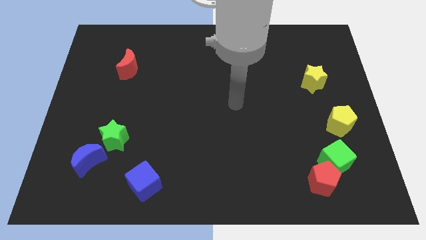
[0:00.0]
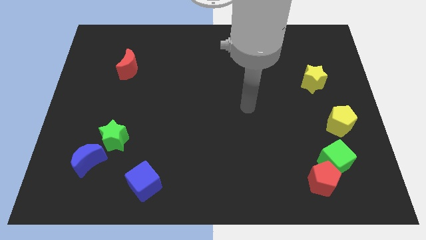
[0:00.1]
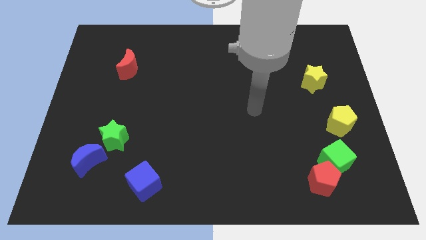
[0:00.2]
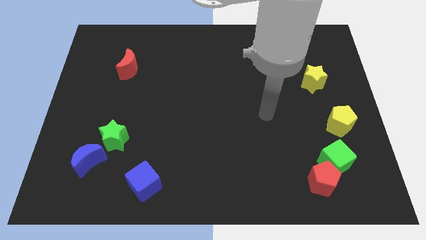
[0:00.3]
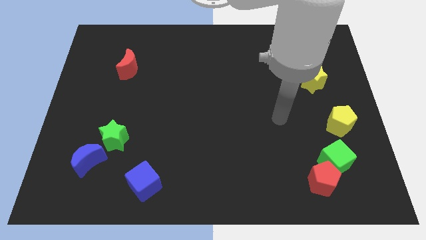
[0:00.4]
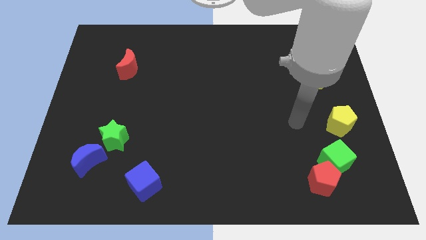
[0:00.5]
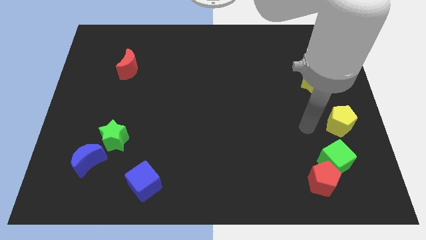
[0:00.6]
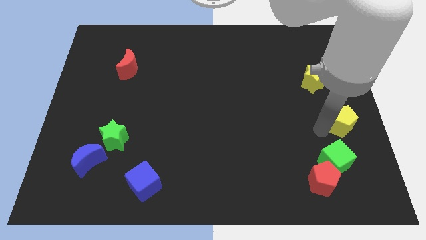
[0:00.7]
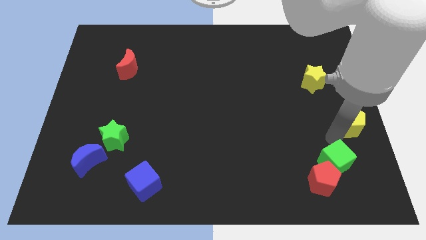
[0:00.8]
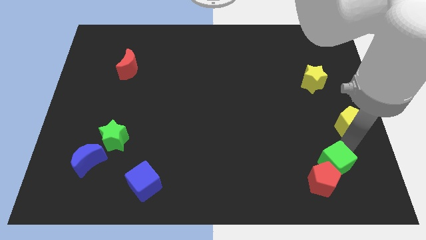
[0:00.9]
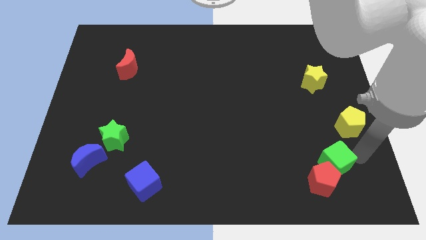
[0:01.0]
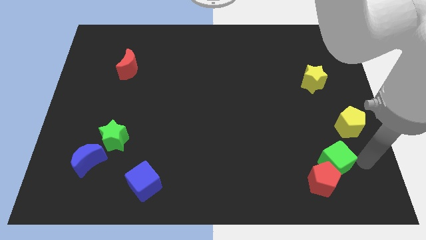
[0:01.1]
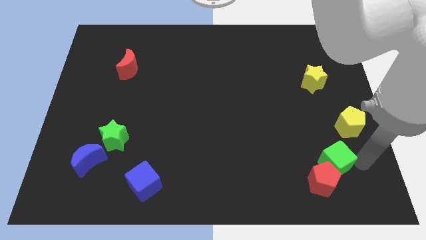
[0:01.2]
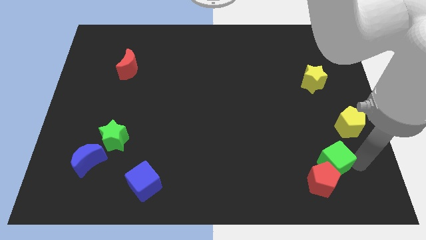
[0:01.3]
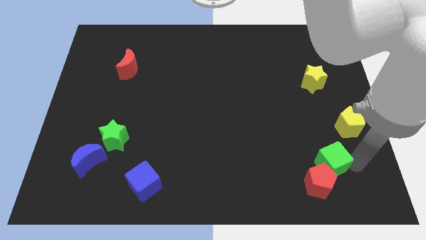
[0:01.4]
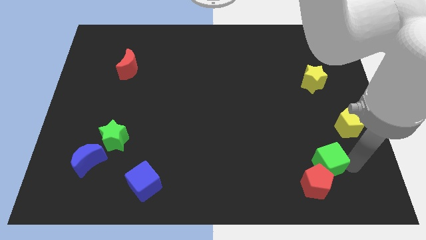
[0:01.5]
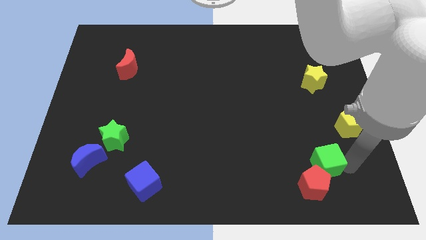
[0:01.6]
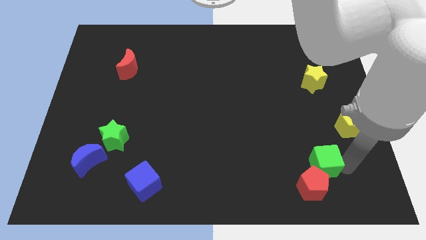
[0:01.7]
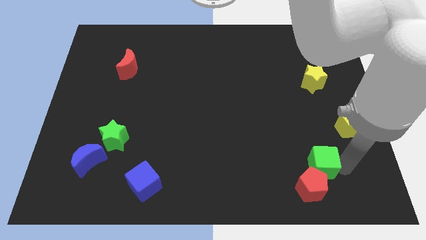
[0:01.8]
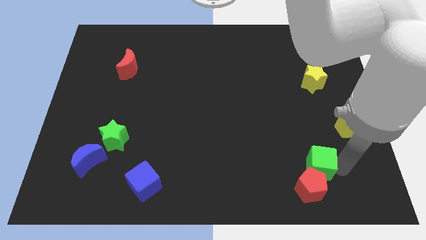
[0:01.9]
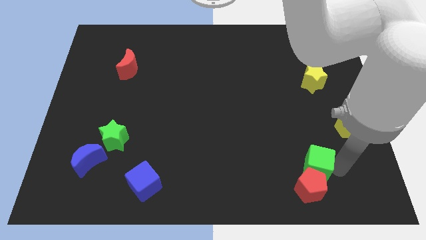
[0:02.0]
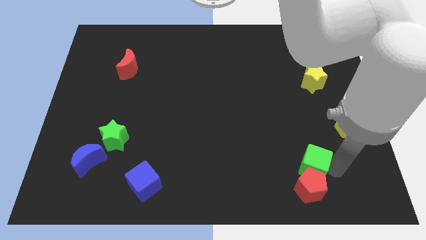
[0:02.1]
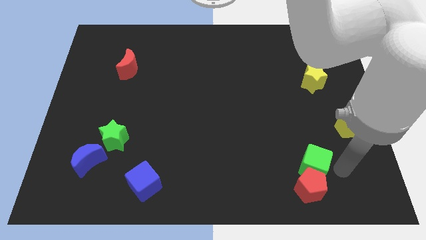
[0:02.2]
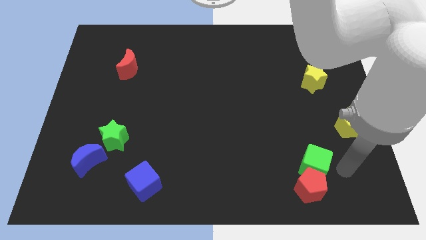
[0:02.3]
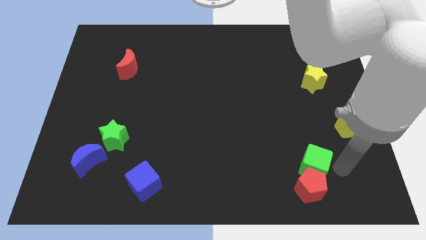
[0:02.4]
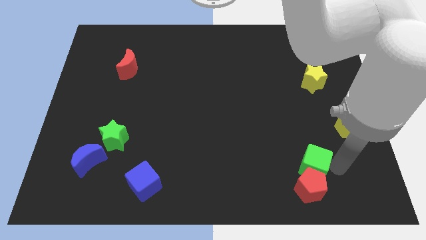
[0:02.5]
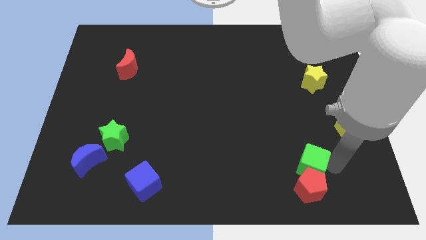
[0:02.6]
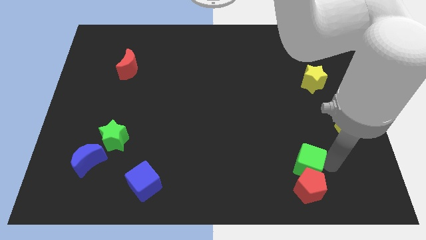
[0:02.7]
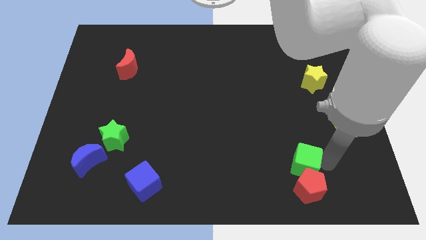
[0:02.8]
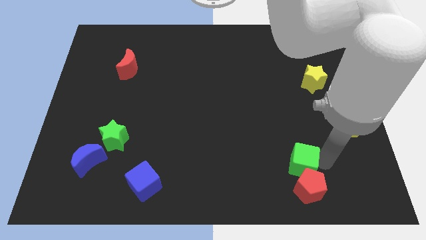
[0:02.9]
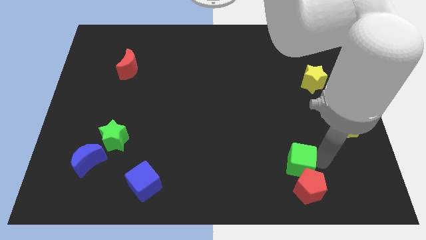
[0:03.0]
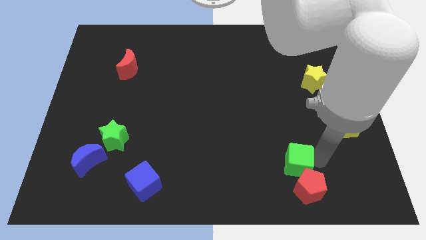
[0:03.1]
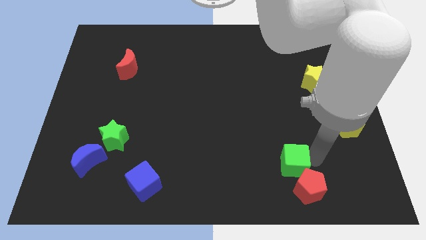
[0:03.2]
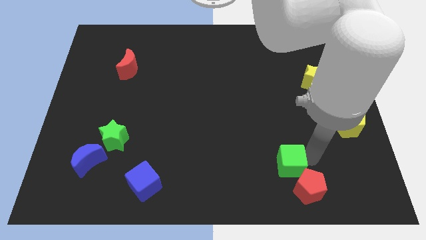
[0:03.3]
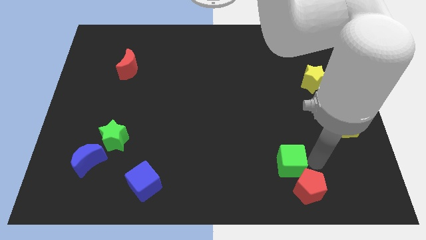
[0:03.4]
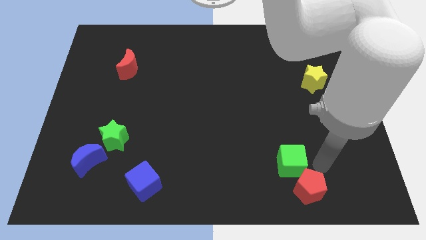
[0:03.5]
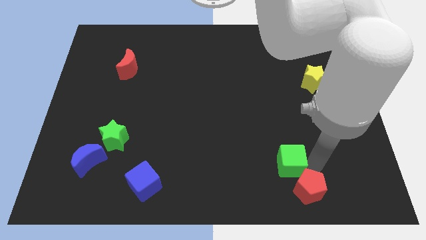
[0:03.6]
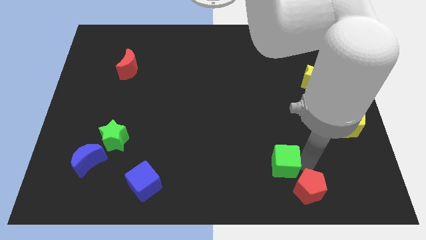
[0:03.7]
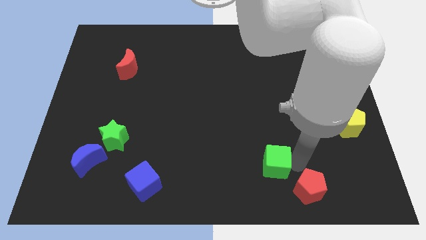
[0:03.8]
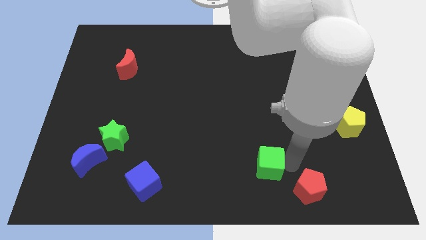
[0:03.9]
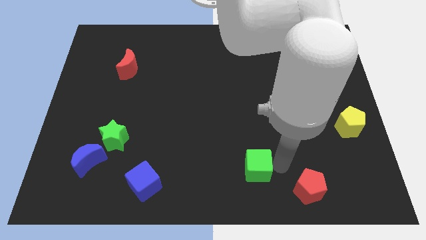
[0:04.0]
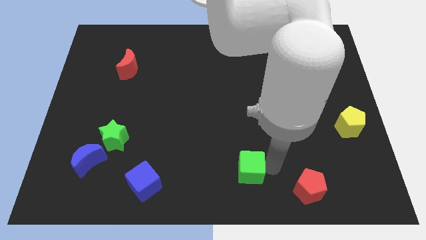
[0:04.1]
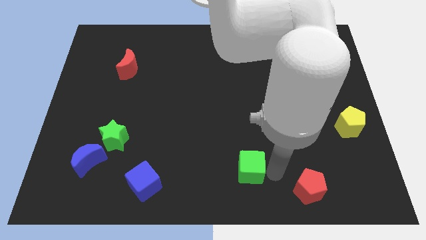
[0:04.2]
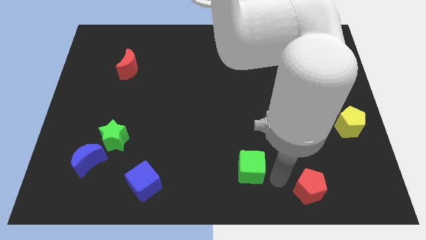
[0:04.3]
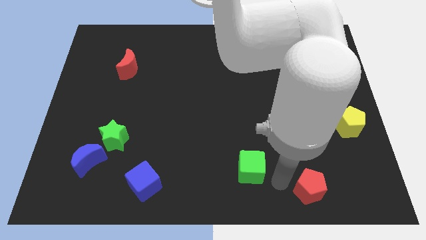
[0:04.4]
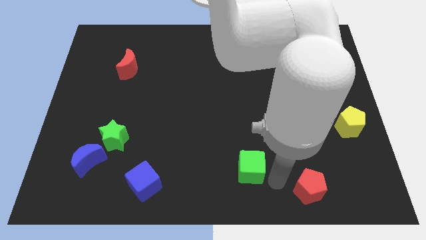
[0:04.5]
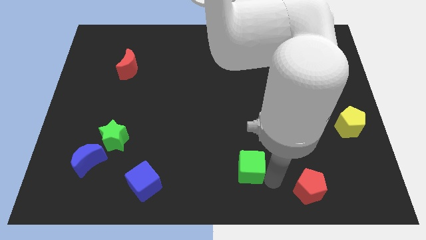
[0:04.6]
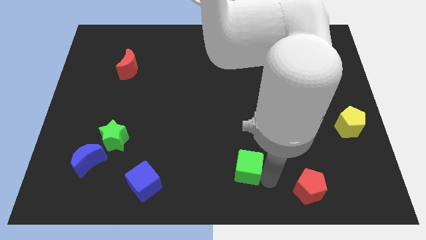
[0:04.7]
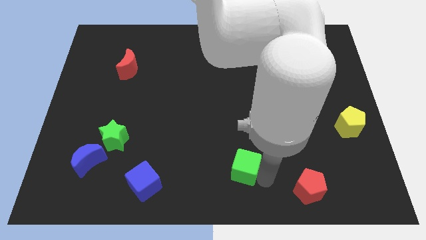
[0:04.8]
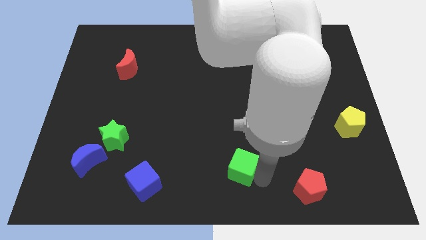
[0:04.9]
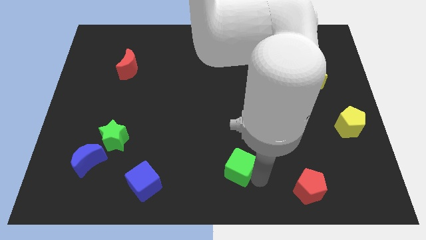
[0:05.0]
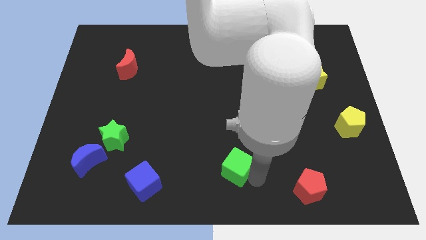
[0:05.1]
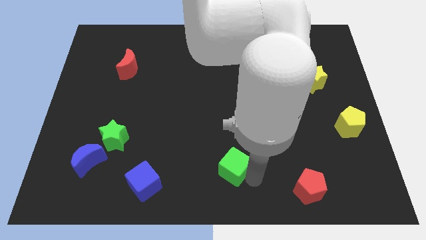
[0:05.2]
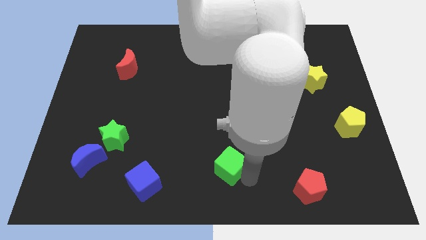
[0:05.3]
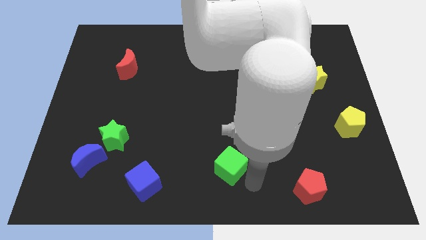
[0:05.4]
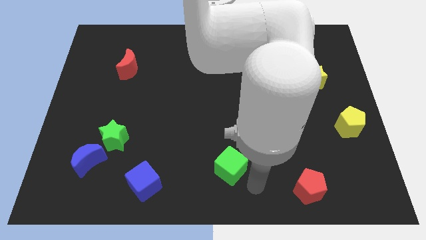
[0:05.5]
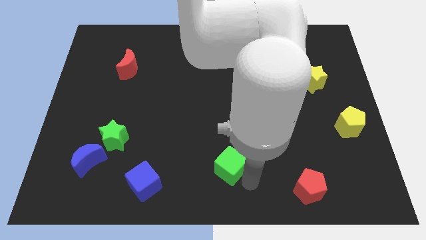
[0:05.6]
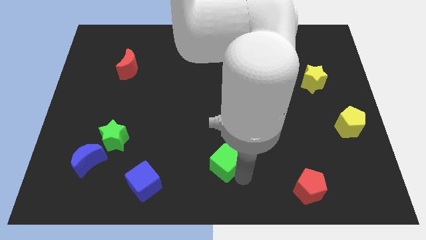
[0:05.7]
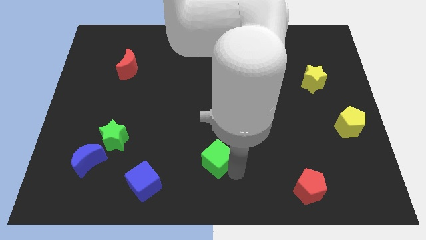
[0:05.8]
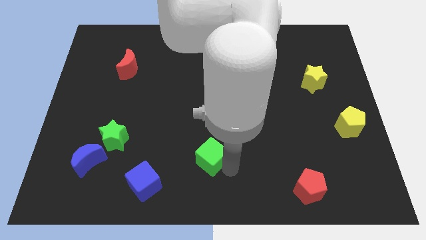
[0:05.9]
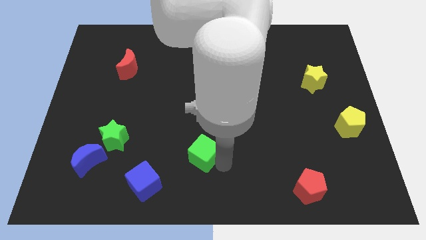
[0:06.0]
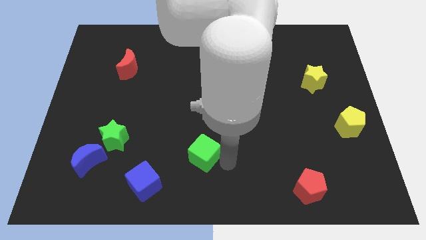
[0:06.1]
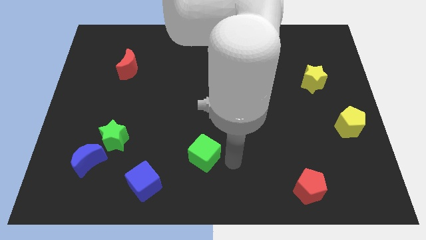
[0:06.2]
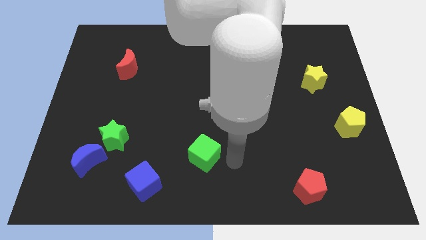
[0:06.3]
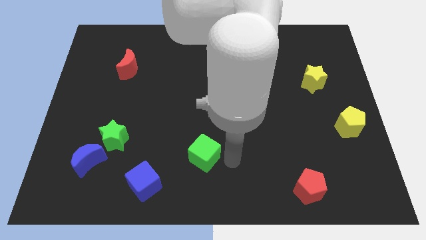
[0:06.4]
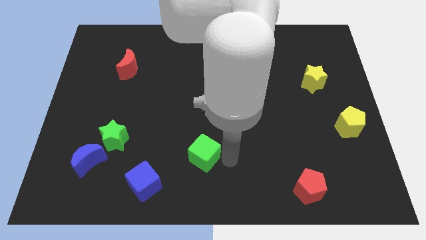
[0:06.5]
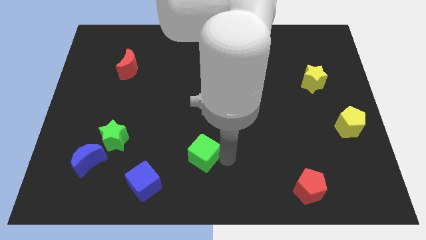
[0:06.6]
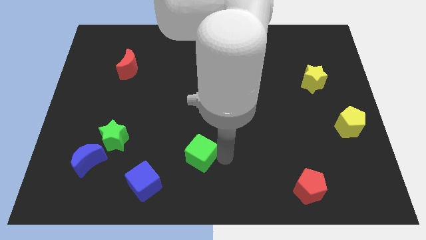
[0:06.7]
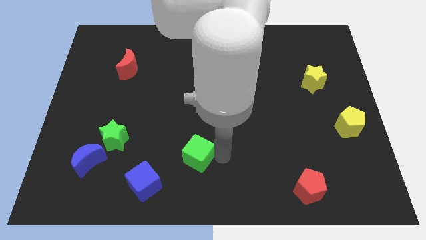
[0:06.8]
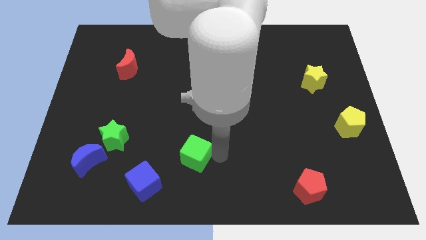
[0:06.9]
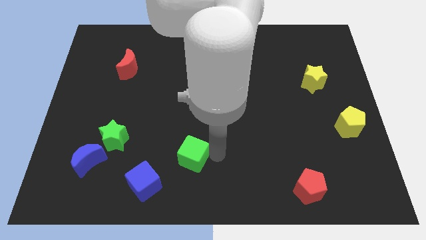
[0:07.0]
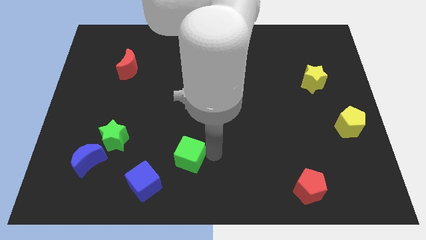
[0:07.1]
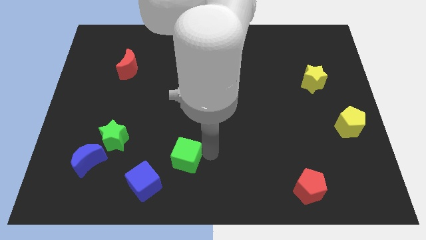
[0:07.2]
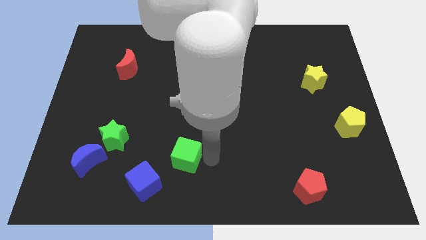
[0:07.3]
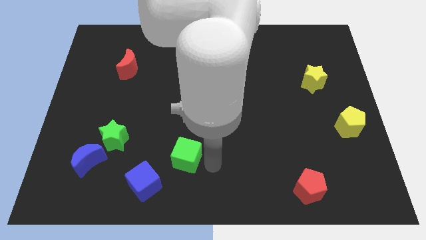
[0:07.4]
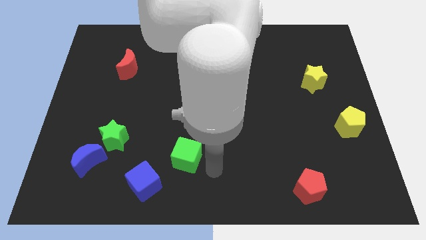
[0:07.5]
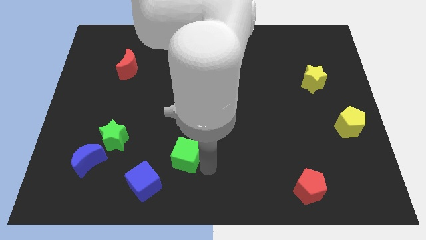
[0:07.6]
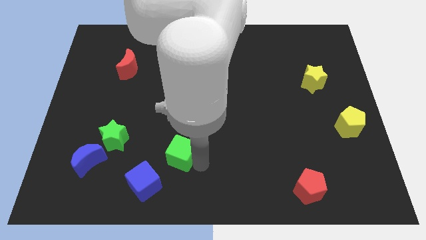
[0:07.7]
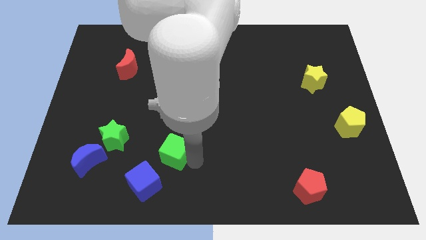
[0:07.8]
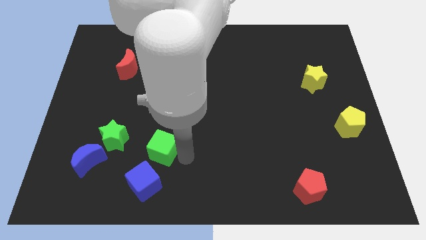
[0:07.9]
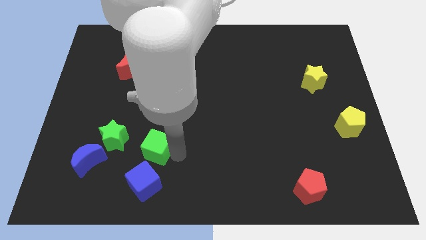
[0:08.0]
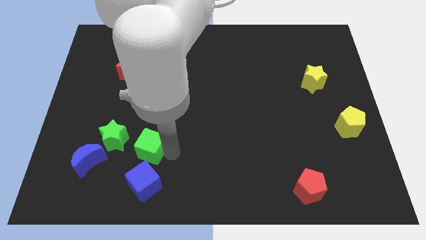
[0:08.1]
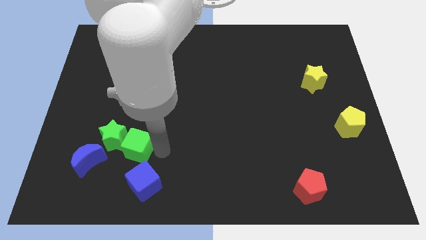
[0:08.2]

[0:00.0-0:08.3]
push the green cube towards the green star
